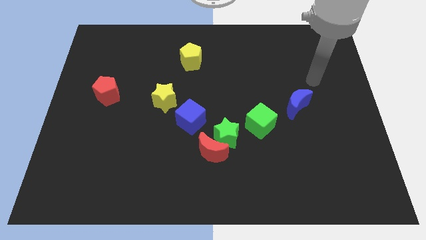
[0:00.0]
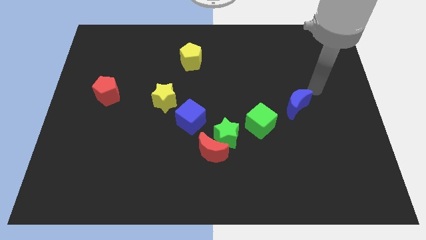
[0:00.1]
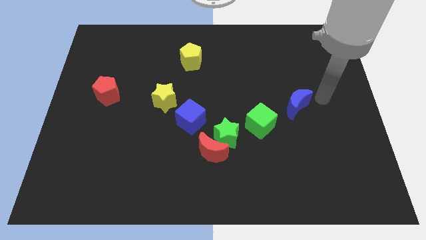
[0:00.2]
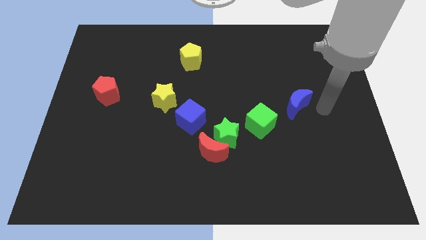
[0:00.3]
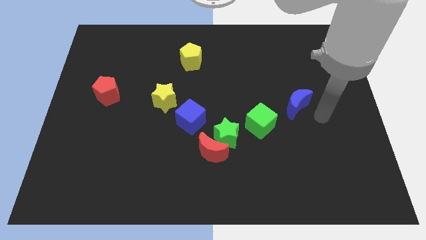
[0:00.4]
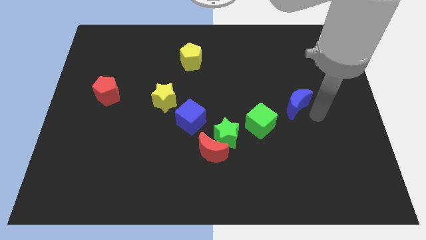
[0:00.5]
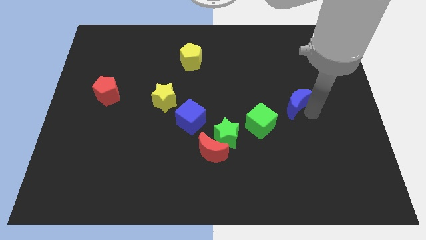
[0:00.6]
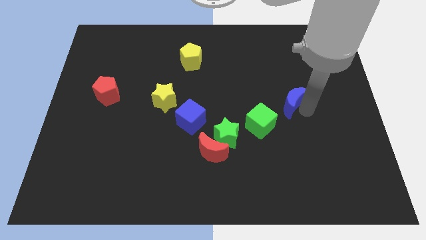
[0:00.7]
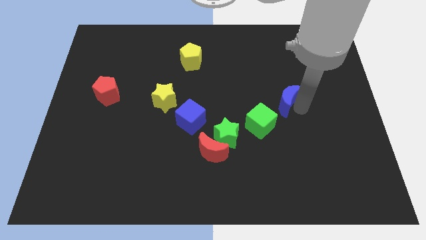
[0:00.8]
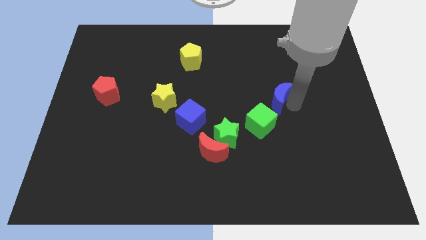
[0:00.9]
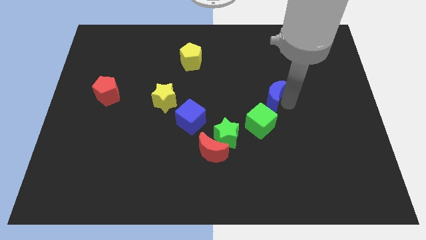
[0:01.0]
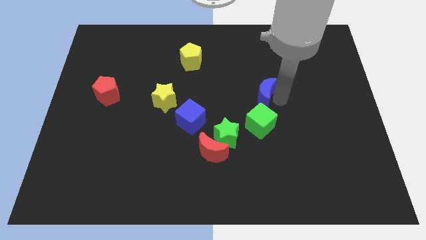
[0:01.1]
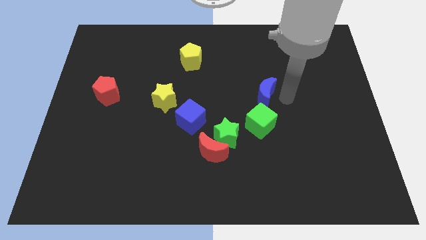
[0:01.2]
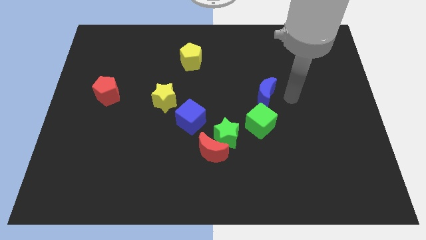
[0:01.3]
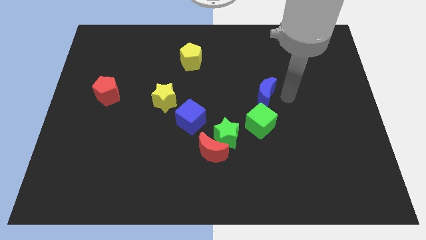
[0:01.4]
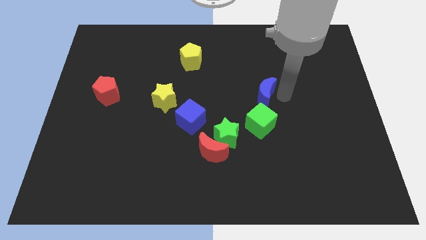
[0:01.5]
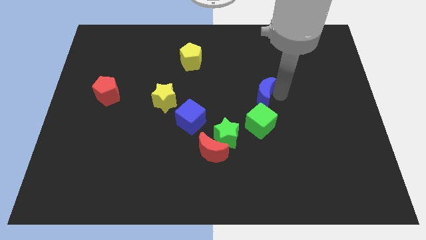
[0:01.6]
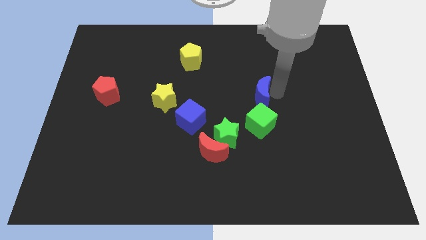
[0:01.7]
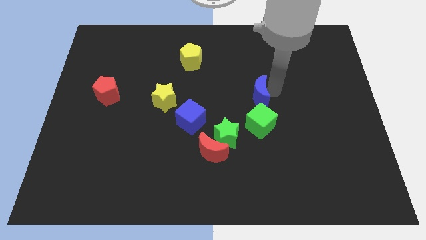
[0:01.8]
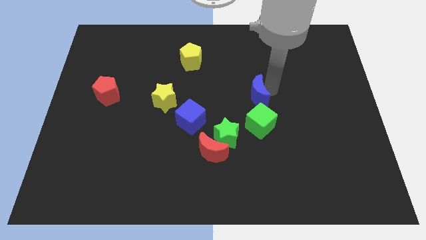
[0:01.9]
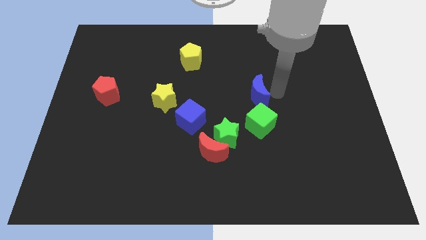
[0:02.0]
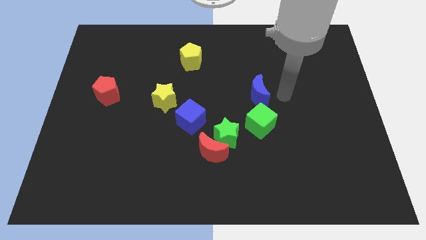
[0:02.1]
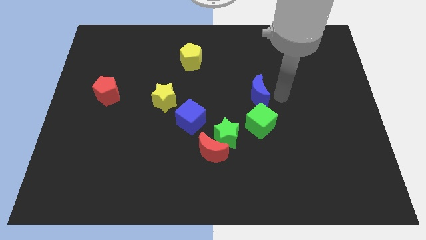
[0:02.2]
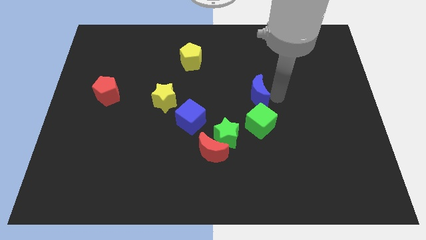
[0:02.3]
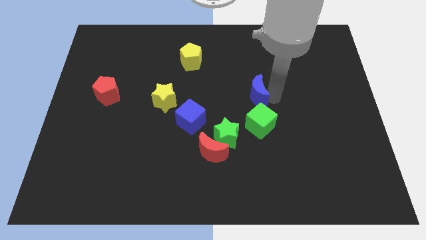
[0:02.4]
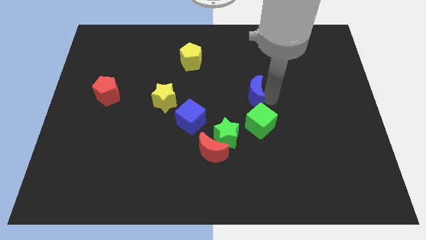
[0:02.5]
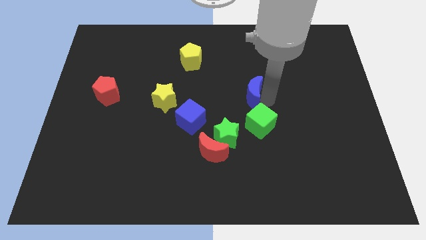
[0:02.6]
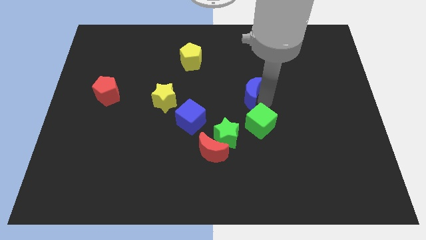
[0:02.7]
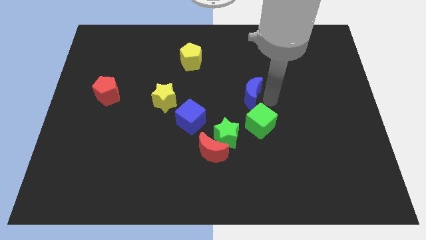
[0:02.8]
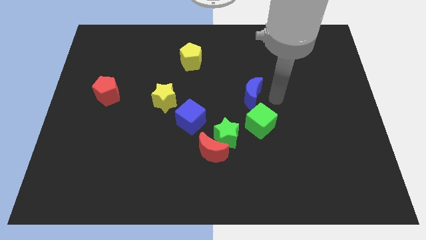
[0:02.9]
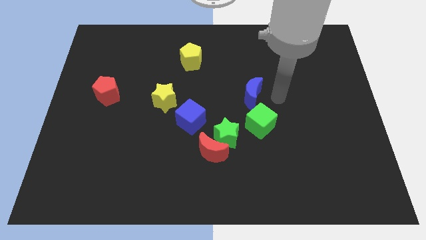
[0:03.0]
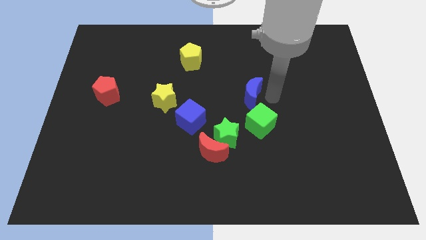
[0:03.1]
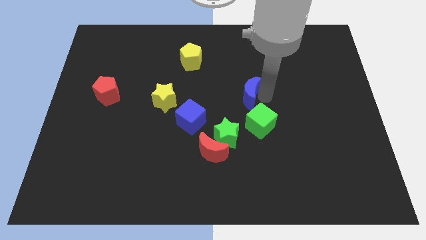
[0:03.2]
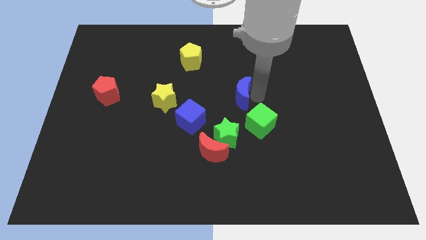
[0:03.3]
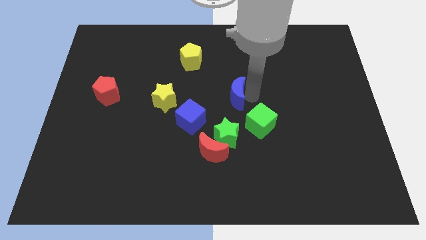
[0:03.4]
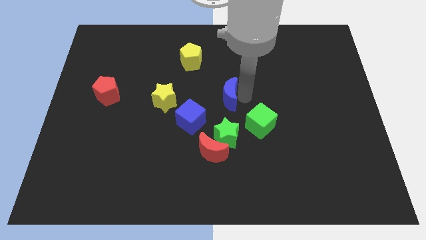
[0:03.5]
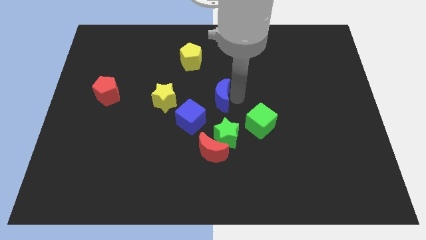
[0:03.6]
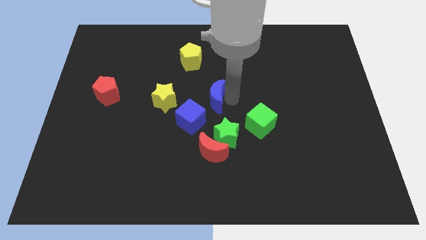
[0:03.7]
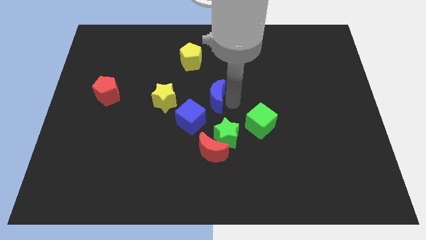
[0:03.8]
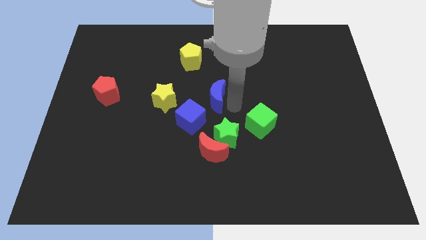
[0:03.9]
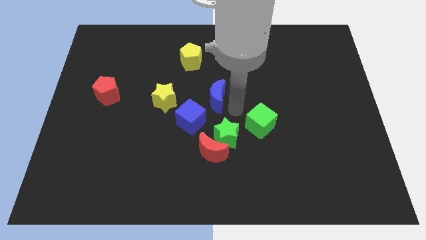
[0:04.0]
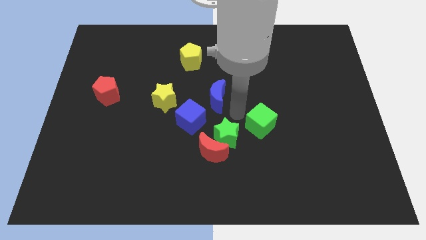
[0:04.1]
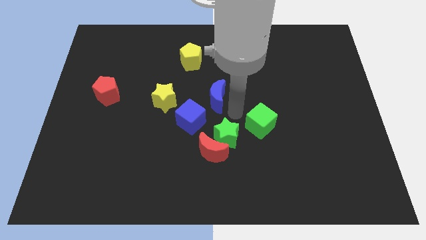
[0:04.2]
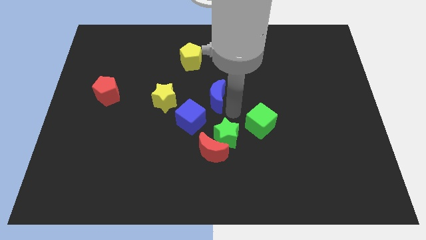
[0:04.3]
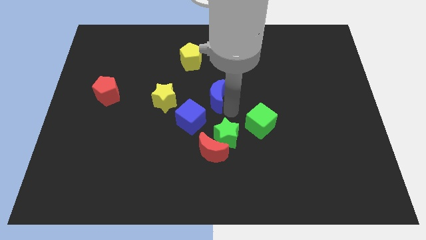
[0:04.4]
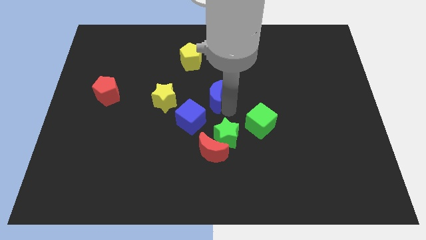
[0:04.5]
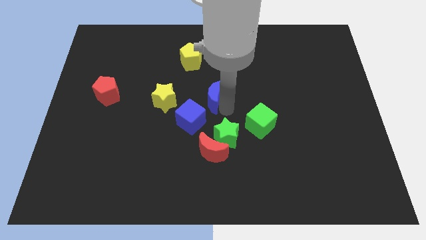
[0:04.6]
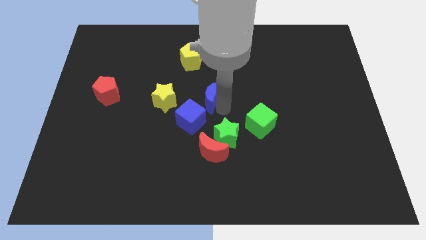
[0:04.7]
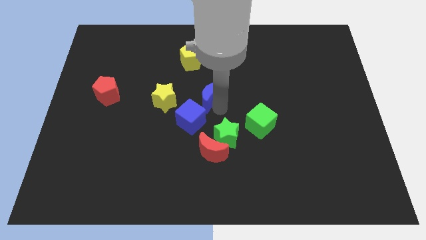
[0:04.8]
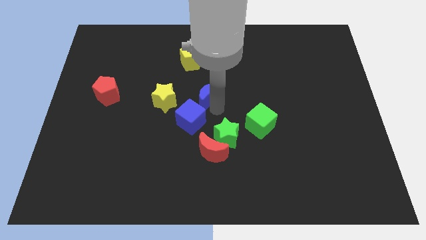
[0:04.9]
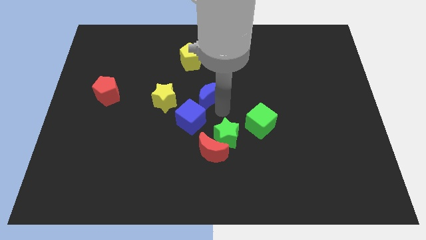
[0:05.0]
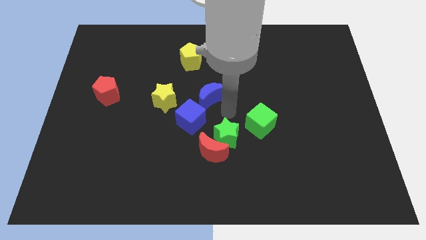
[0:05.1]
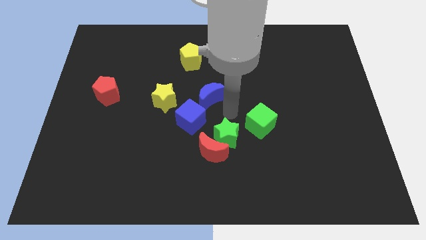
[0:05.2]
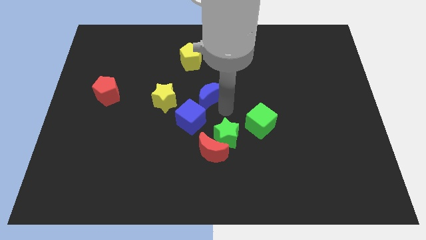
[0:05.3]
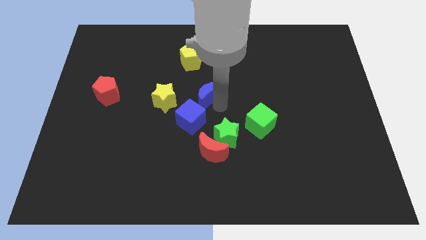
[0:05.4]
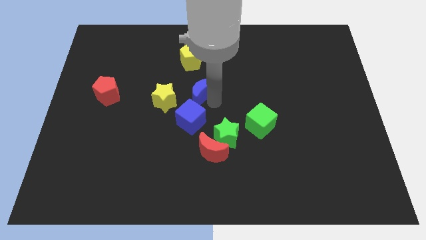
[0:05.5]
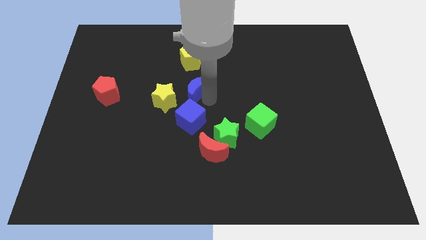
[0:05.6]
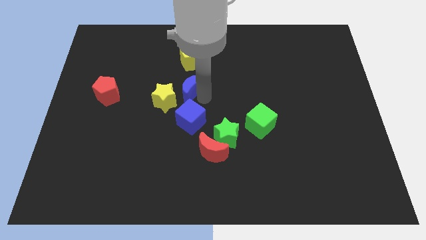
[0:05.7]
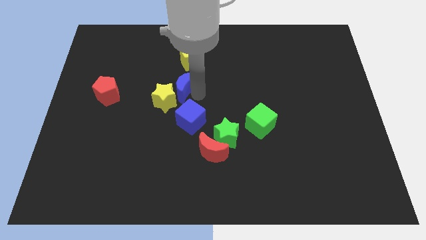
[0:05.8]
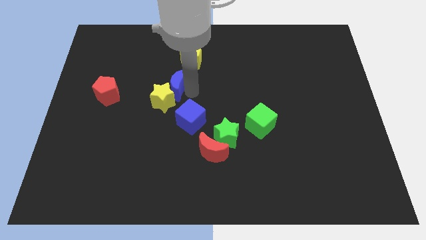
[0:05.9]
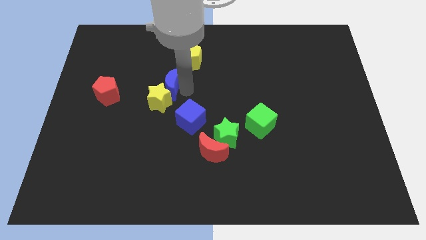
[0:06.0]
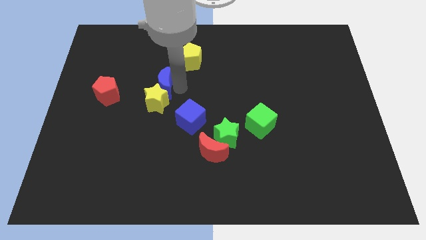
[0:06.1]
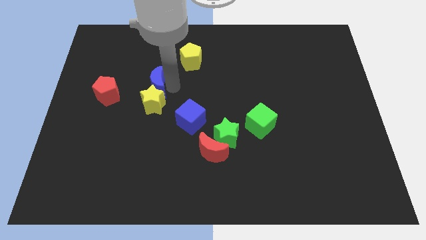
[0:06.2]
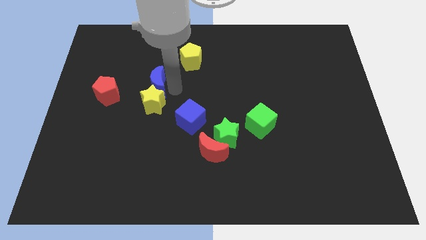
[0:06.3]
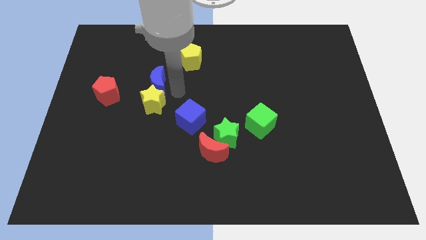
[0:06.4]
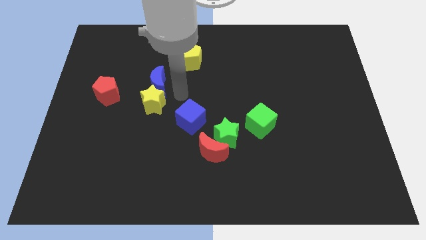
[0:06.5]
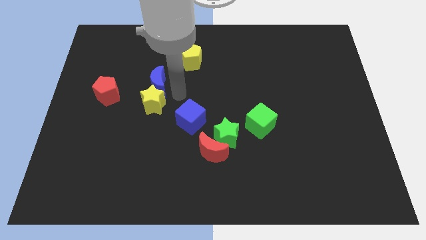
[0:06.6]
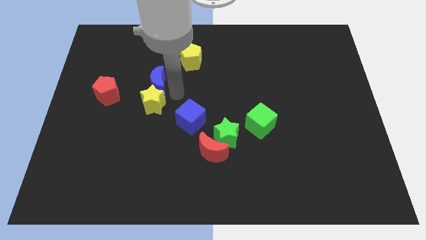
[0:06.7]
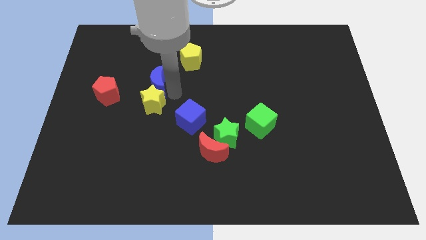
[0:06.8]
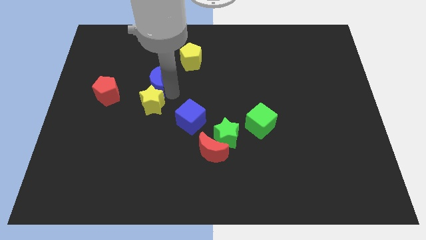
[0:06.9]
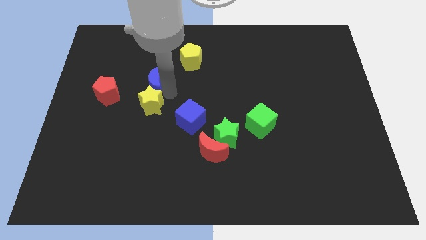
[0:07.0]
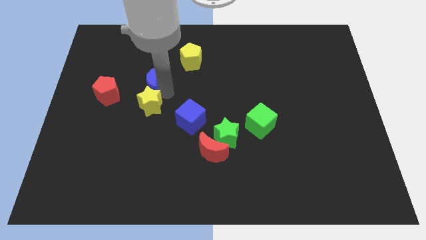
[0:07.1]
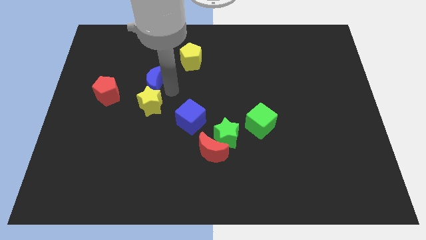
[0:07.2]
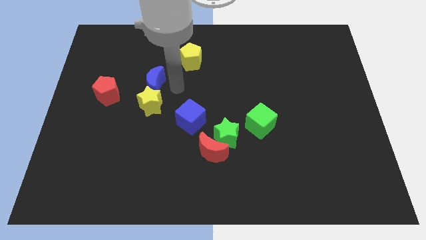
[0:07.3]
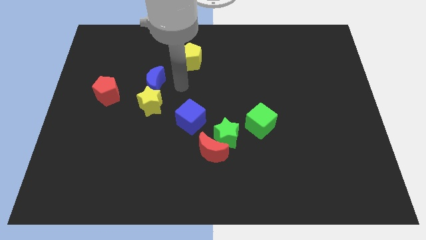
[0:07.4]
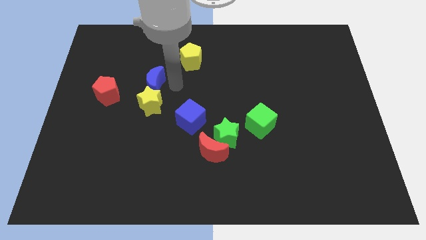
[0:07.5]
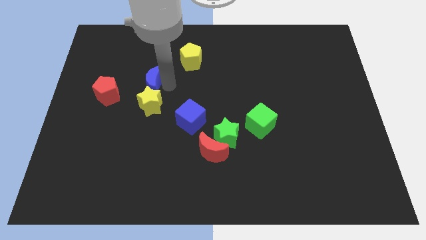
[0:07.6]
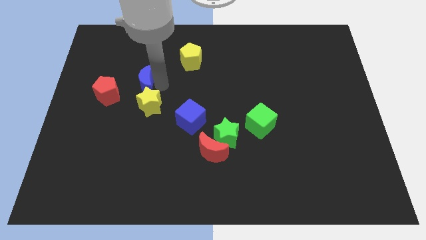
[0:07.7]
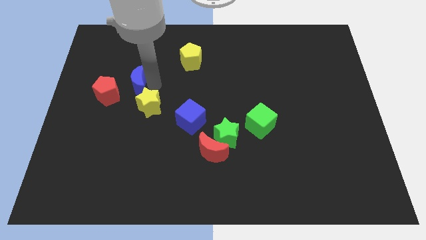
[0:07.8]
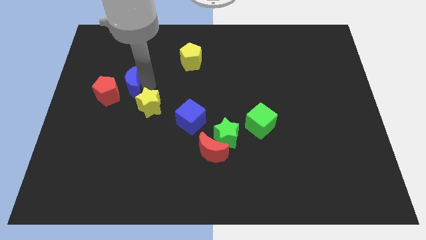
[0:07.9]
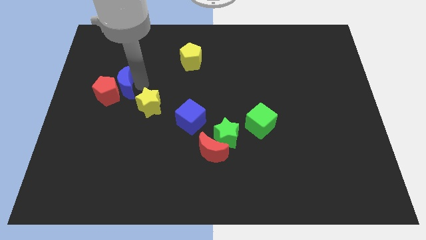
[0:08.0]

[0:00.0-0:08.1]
slide the blue moon next to the red pentagon
